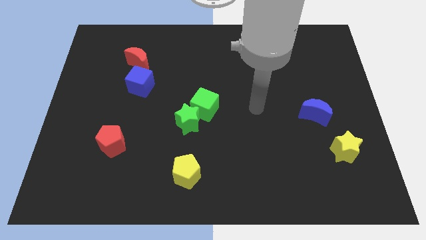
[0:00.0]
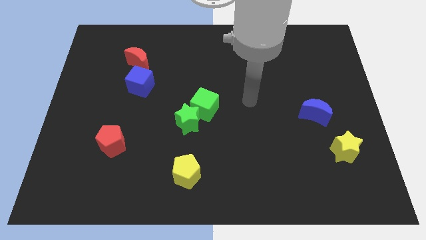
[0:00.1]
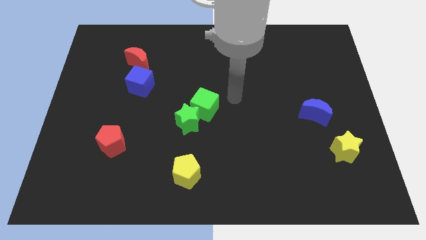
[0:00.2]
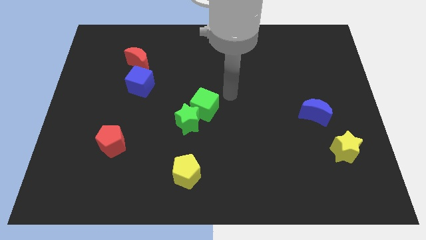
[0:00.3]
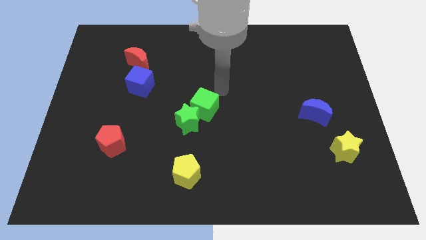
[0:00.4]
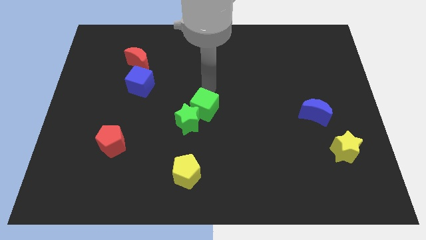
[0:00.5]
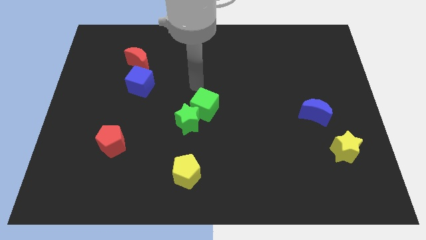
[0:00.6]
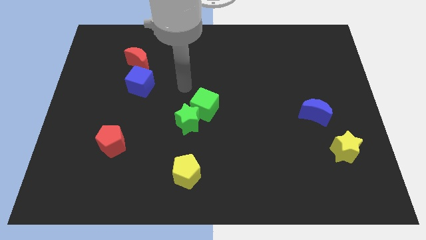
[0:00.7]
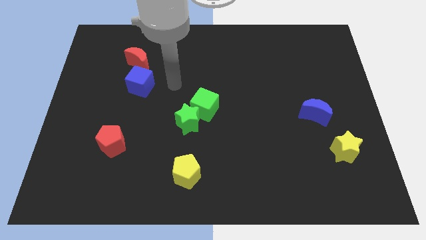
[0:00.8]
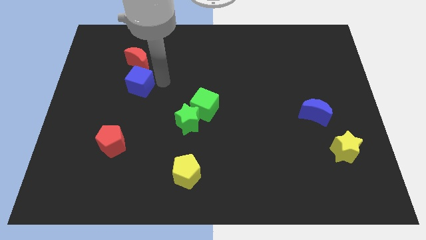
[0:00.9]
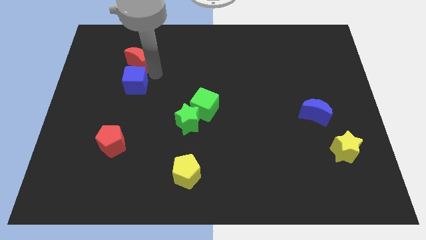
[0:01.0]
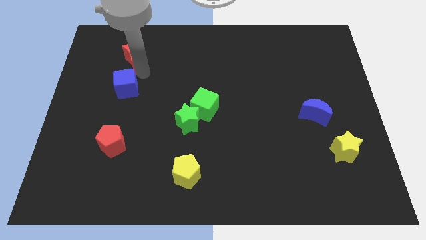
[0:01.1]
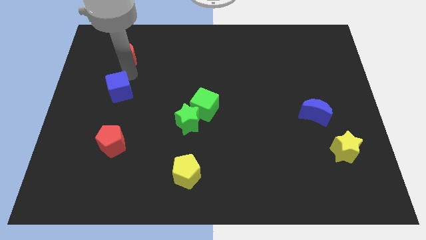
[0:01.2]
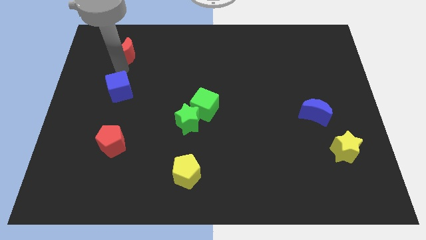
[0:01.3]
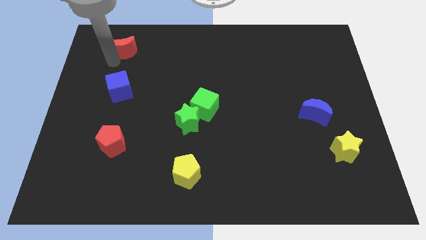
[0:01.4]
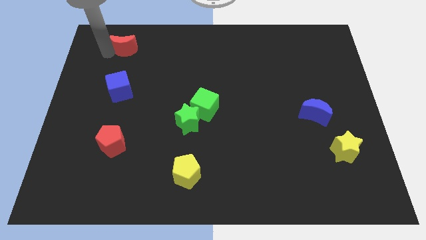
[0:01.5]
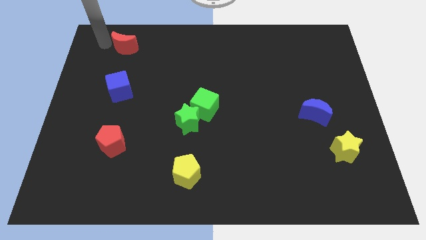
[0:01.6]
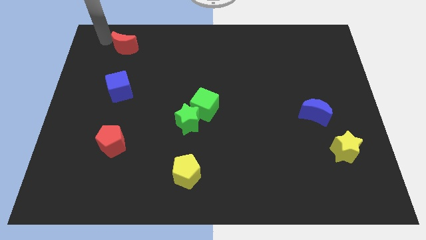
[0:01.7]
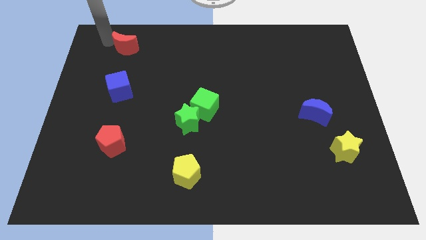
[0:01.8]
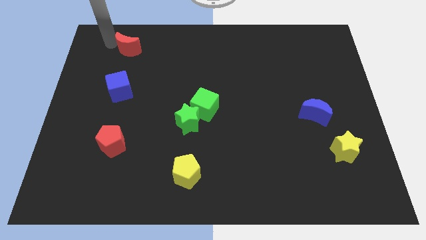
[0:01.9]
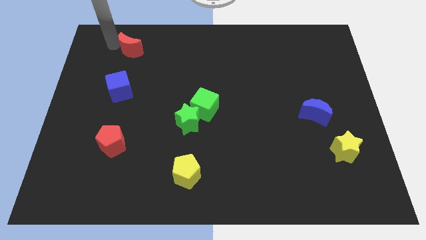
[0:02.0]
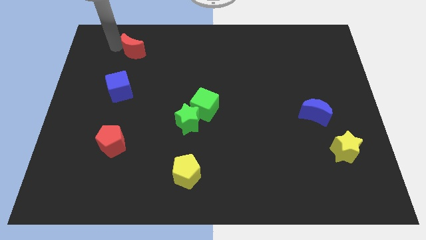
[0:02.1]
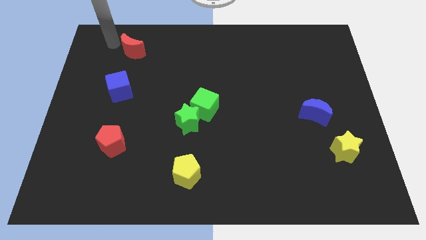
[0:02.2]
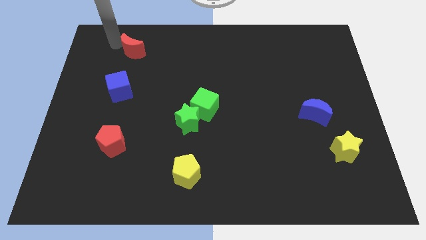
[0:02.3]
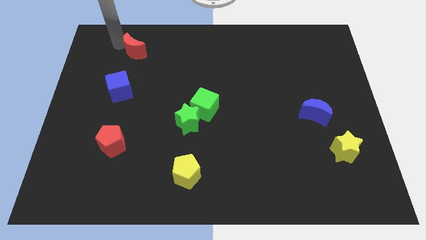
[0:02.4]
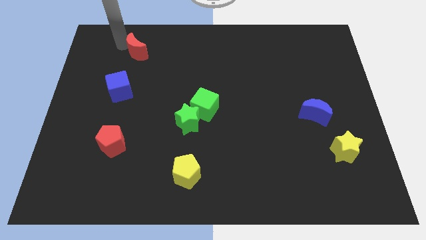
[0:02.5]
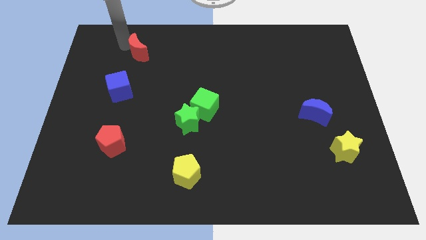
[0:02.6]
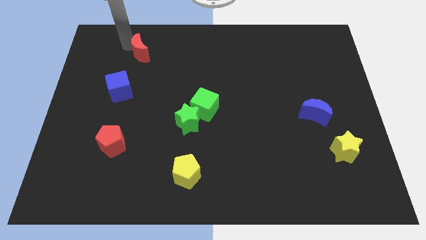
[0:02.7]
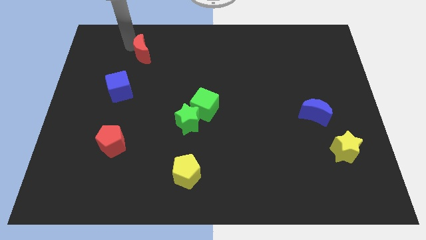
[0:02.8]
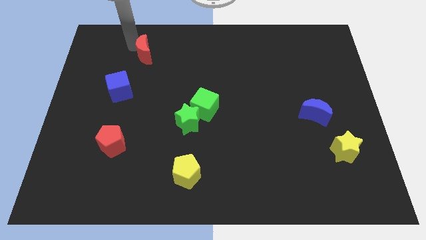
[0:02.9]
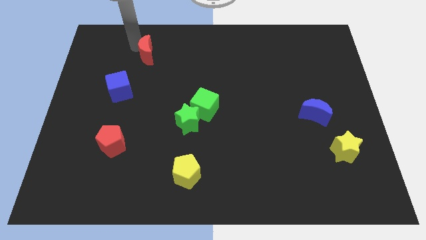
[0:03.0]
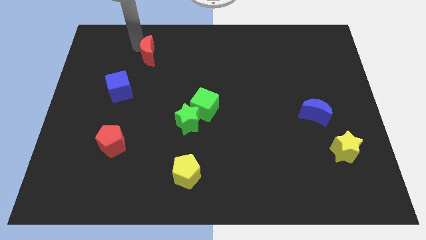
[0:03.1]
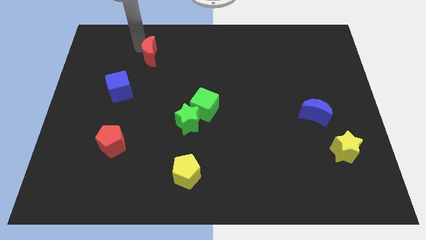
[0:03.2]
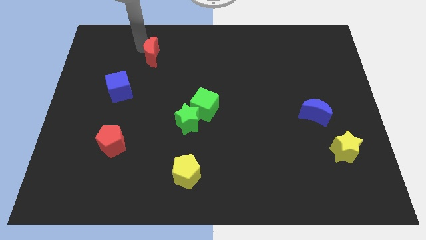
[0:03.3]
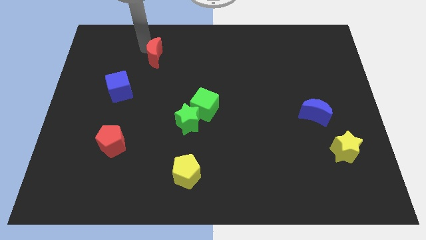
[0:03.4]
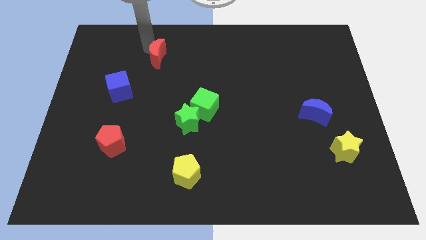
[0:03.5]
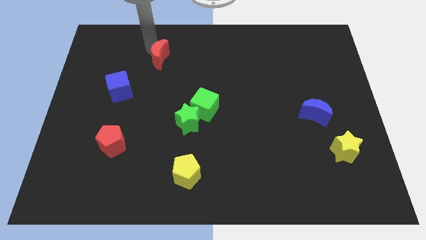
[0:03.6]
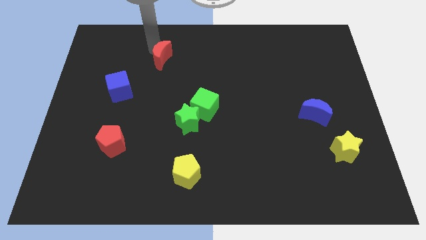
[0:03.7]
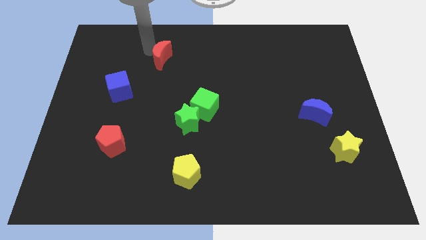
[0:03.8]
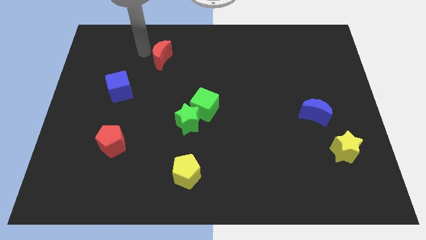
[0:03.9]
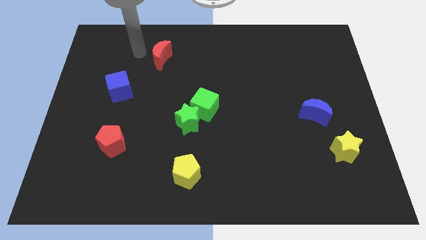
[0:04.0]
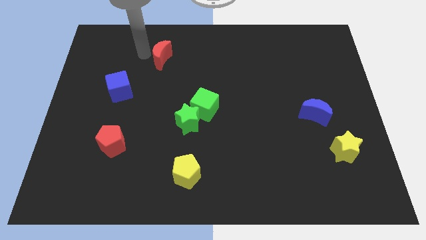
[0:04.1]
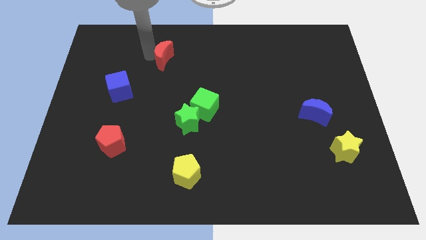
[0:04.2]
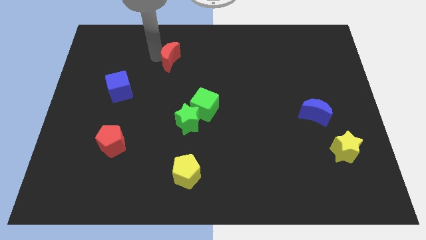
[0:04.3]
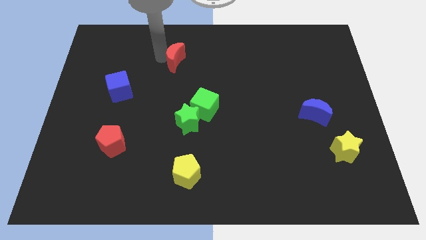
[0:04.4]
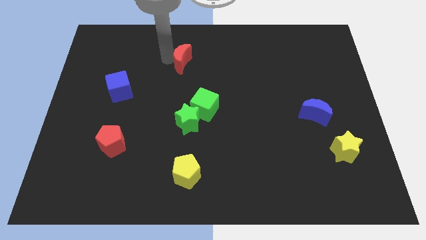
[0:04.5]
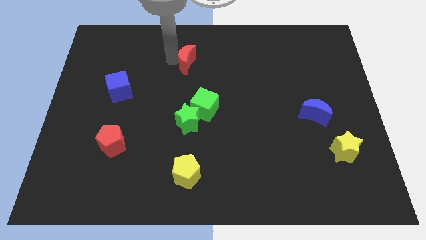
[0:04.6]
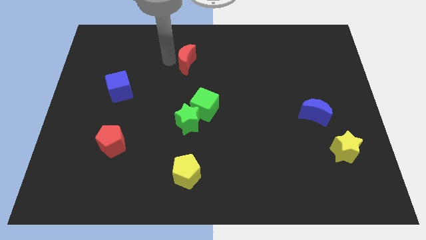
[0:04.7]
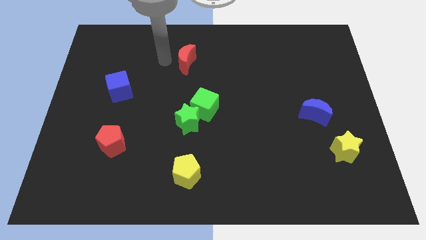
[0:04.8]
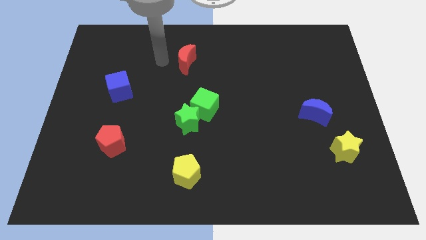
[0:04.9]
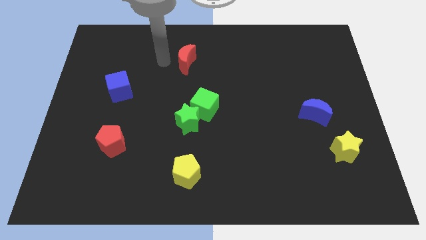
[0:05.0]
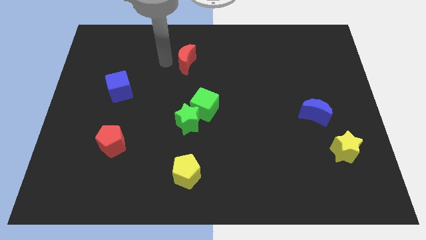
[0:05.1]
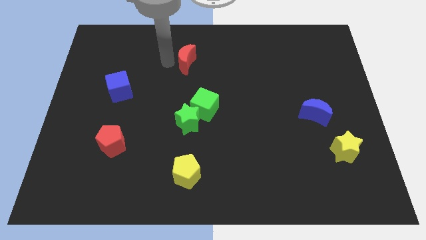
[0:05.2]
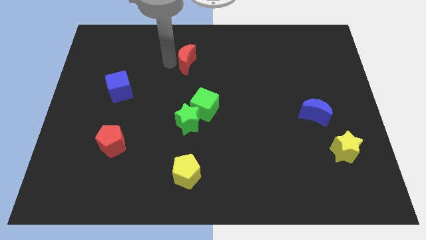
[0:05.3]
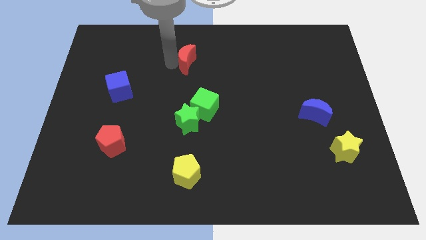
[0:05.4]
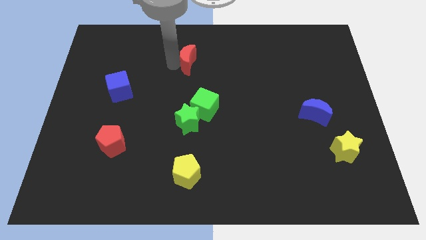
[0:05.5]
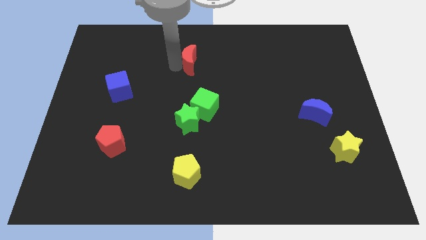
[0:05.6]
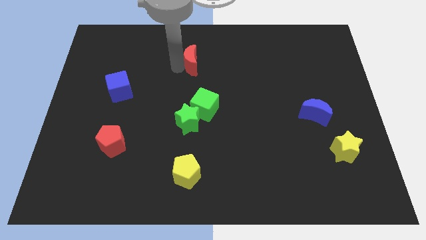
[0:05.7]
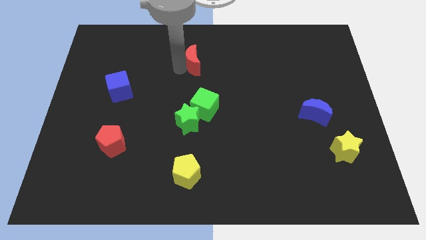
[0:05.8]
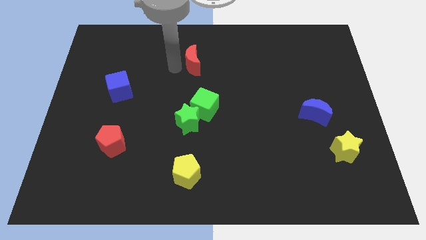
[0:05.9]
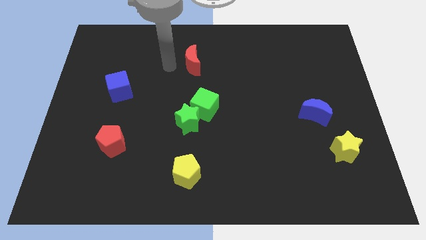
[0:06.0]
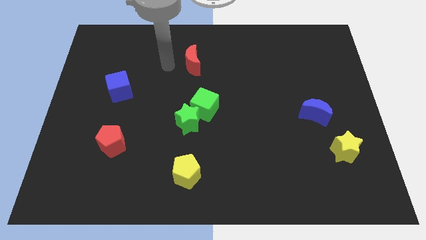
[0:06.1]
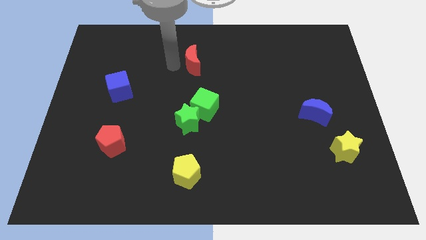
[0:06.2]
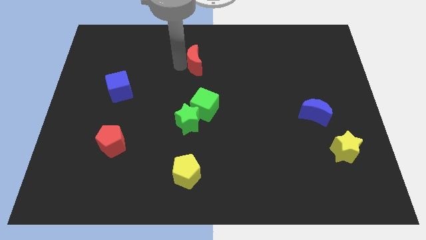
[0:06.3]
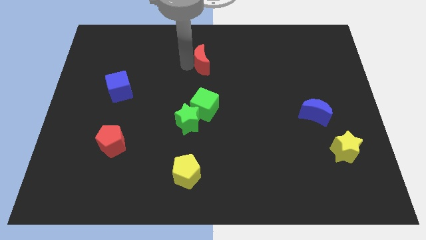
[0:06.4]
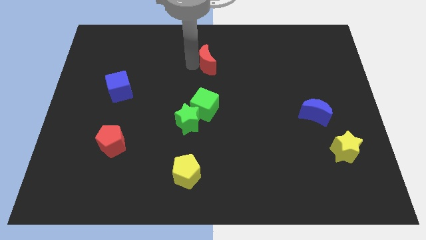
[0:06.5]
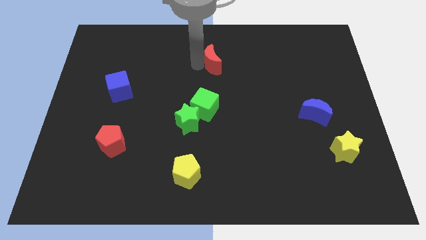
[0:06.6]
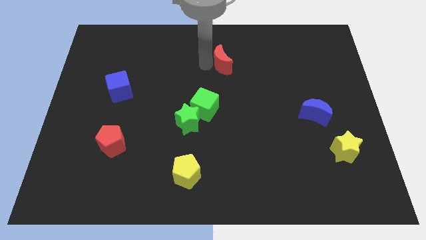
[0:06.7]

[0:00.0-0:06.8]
push the red moon right

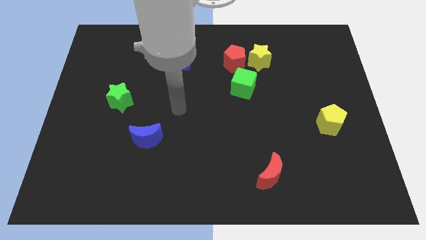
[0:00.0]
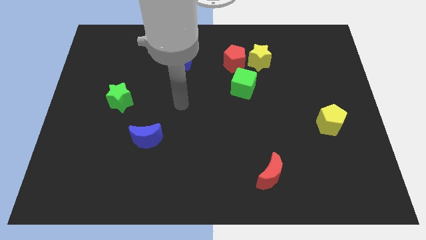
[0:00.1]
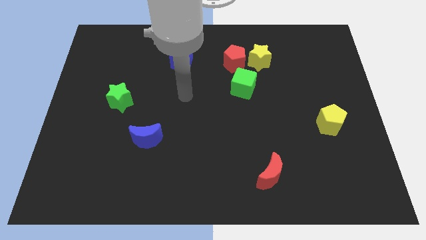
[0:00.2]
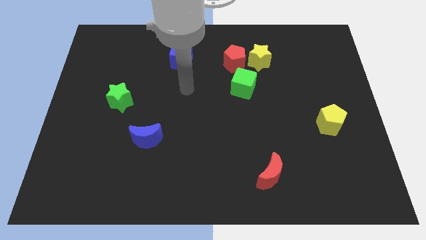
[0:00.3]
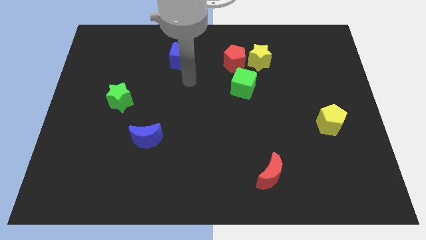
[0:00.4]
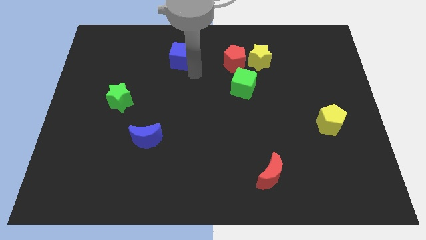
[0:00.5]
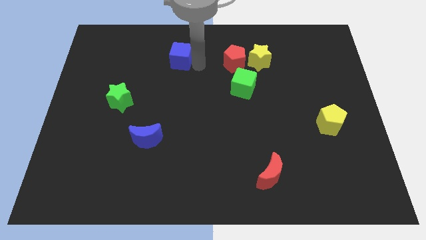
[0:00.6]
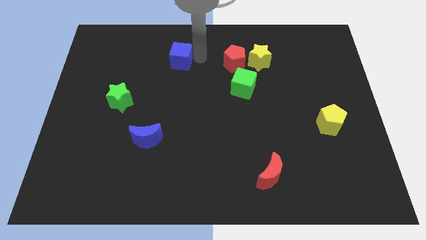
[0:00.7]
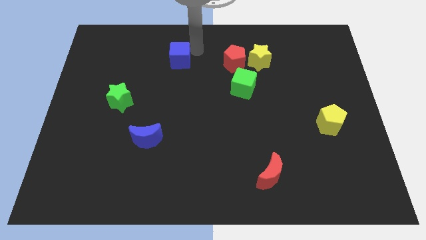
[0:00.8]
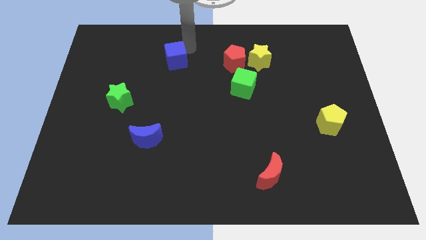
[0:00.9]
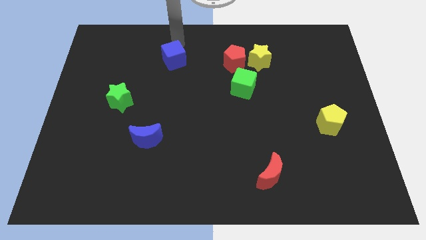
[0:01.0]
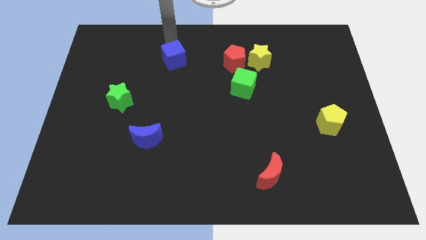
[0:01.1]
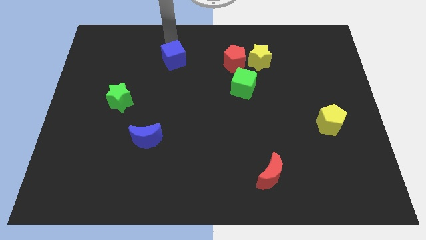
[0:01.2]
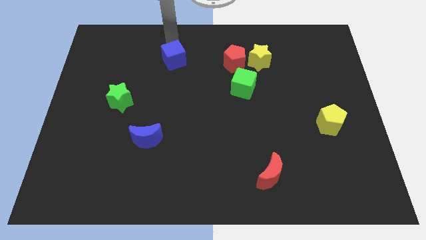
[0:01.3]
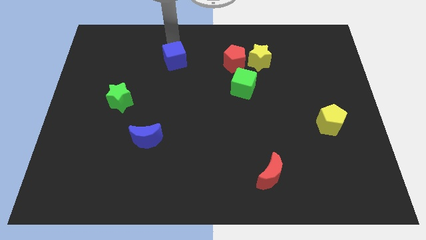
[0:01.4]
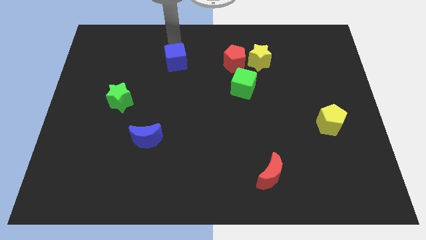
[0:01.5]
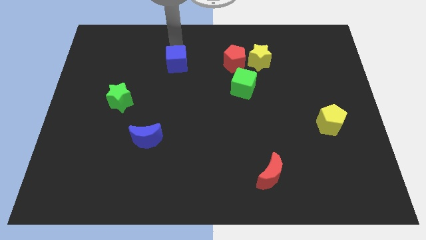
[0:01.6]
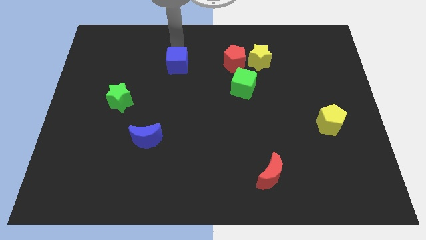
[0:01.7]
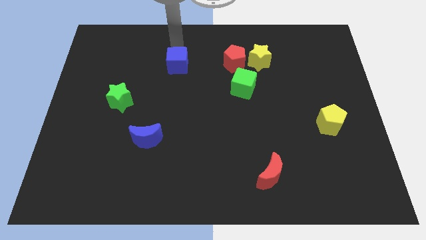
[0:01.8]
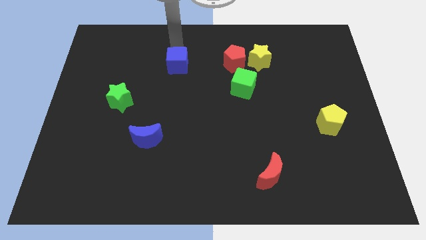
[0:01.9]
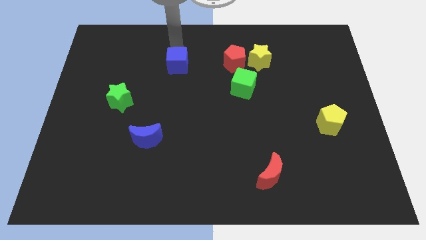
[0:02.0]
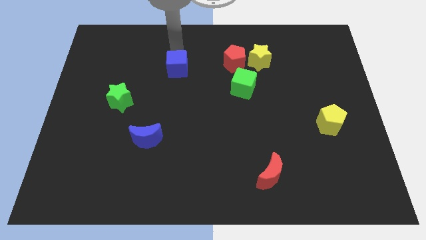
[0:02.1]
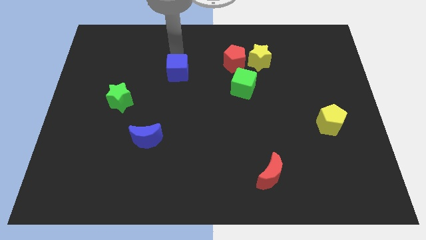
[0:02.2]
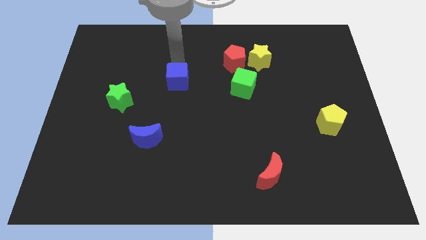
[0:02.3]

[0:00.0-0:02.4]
push the blue cube down a bit
